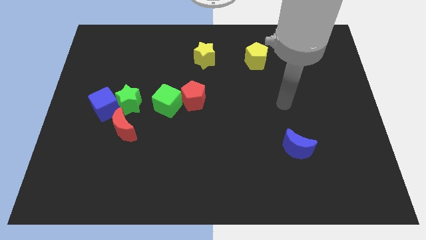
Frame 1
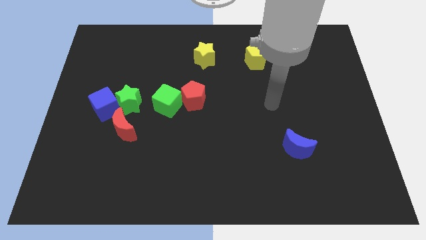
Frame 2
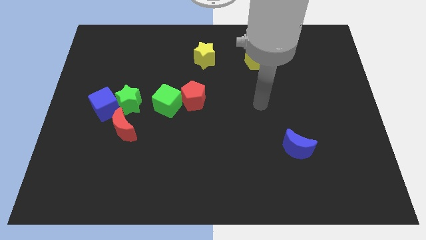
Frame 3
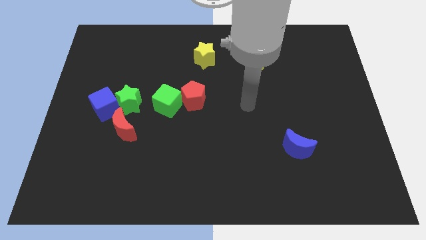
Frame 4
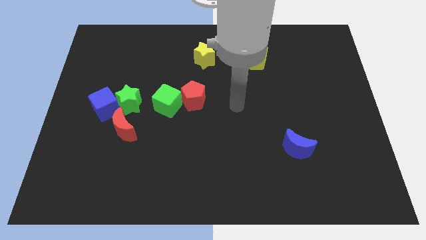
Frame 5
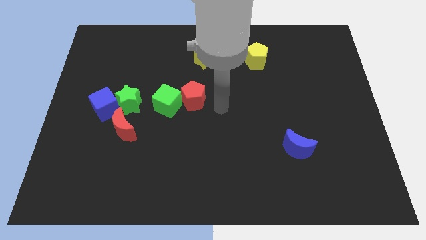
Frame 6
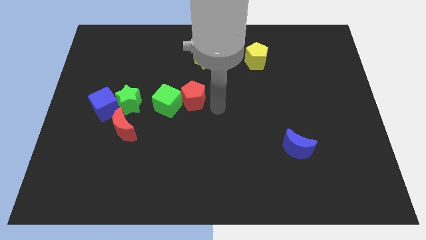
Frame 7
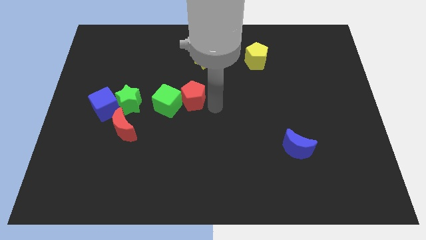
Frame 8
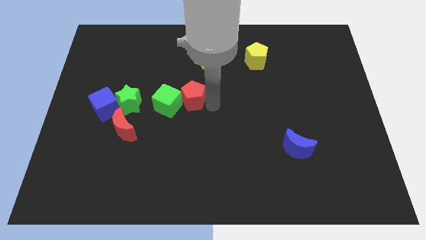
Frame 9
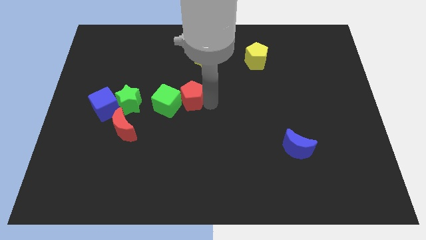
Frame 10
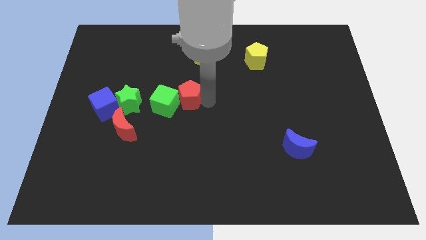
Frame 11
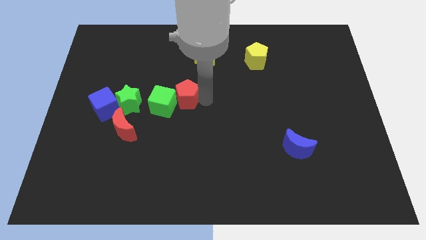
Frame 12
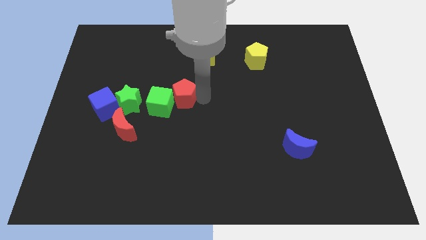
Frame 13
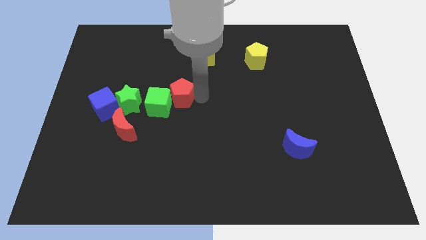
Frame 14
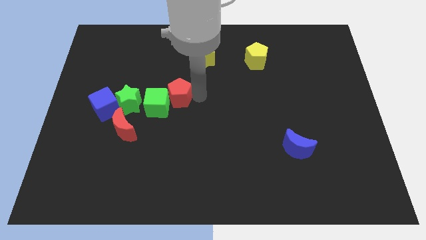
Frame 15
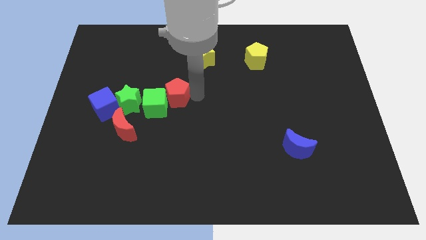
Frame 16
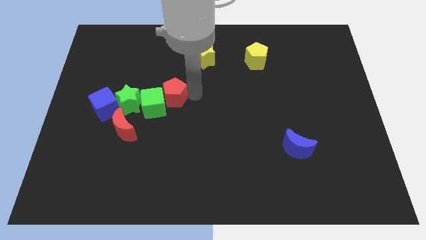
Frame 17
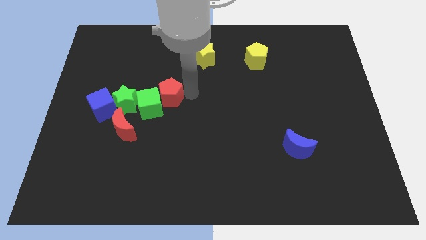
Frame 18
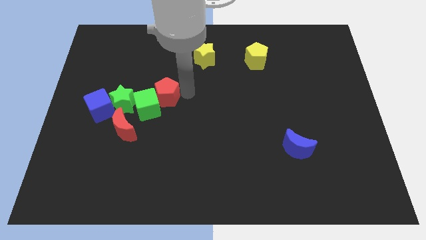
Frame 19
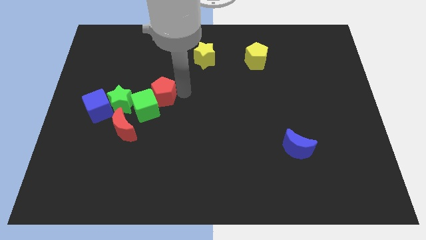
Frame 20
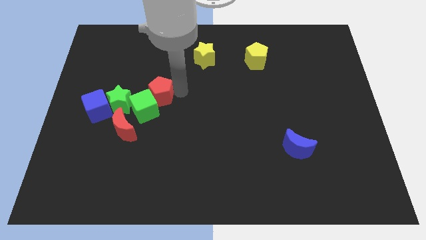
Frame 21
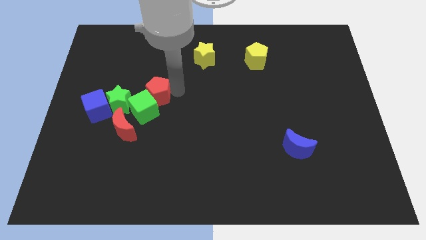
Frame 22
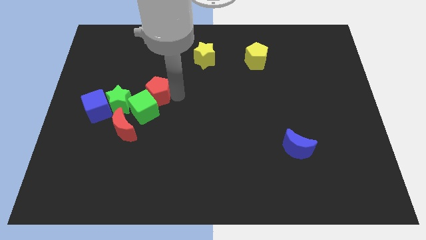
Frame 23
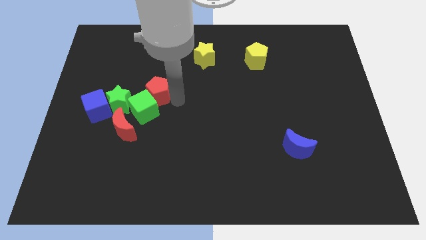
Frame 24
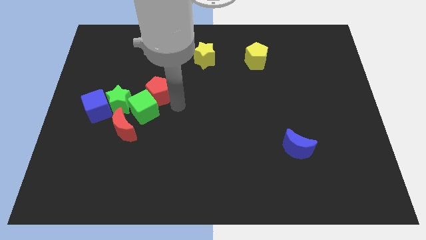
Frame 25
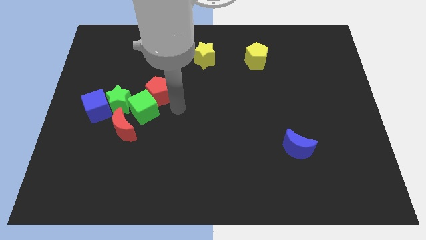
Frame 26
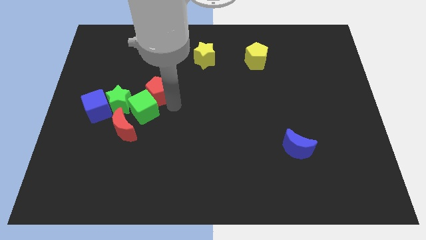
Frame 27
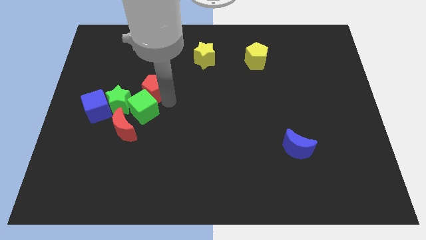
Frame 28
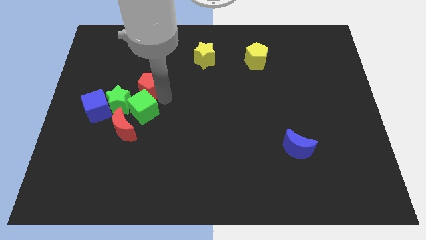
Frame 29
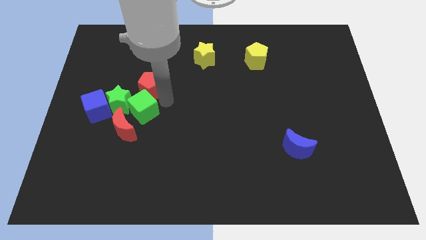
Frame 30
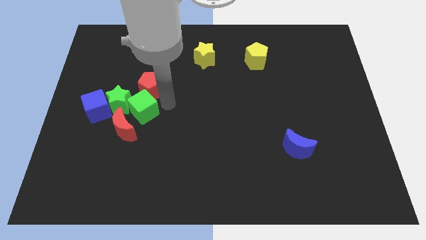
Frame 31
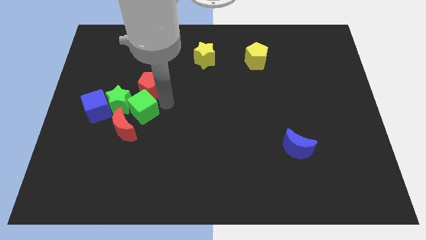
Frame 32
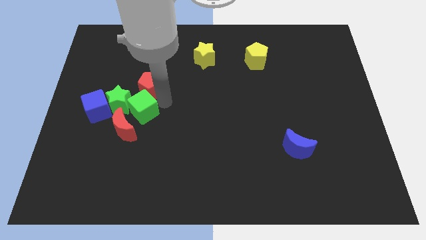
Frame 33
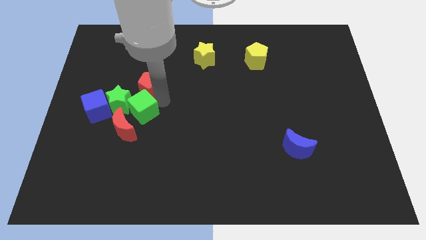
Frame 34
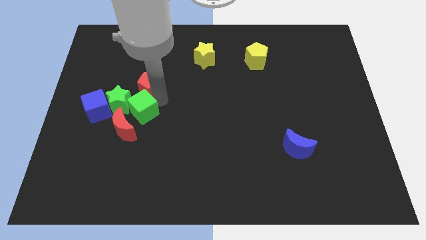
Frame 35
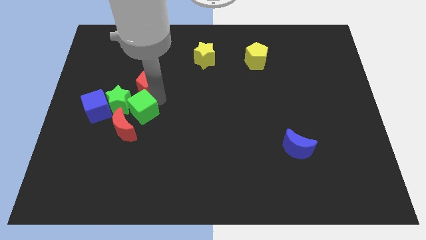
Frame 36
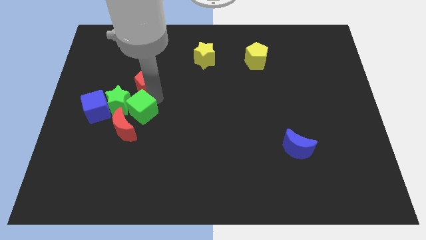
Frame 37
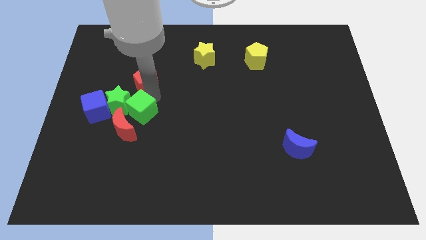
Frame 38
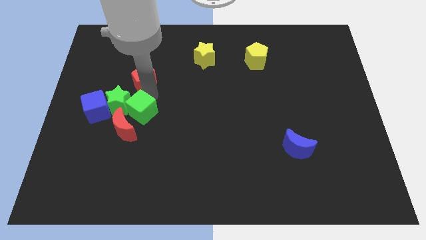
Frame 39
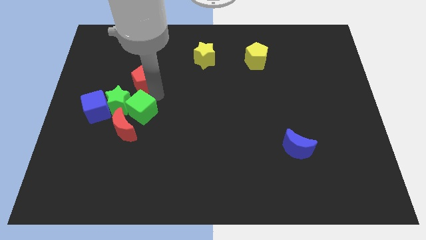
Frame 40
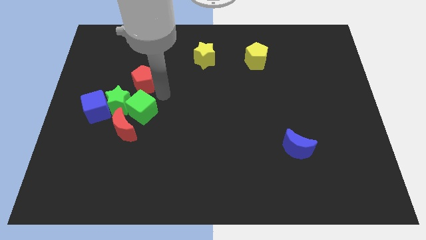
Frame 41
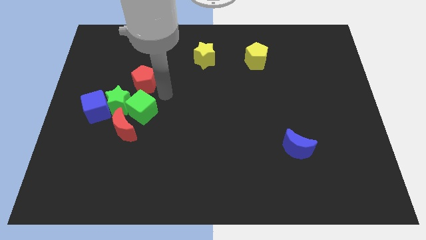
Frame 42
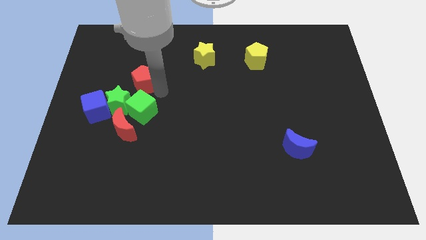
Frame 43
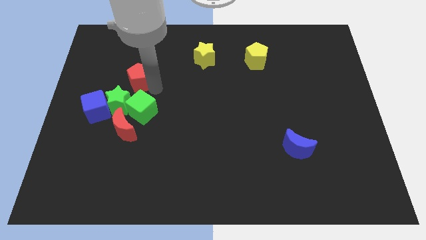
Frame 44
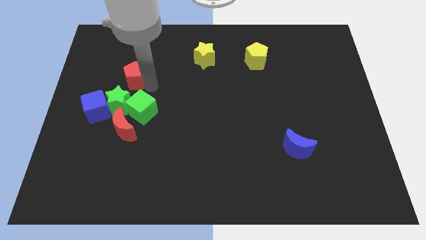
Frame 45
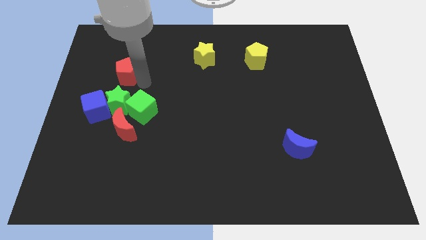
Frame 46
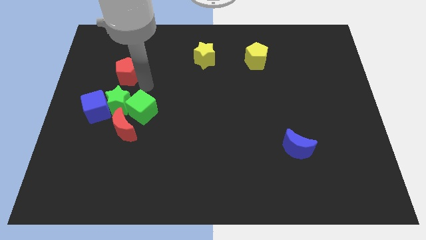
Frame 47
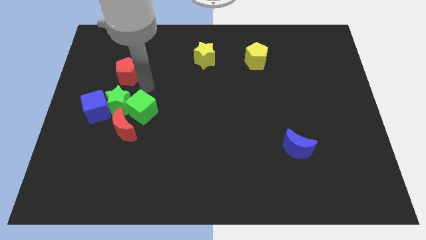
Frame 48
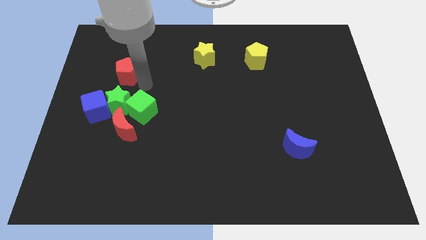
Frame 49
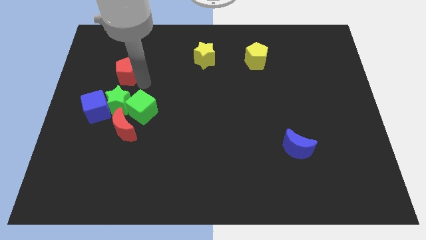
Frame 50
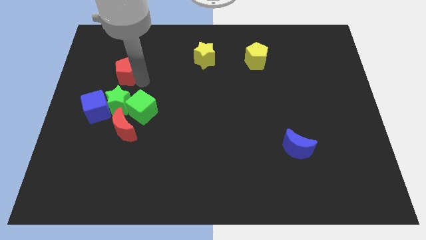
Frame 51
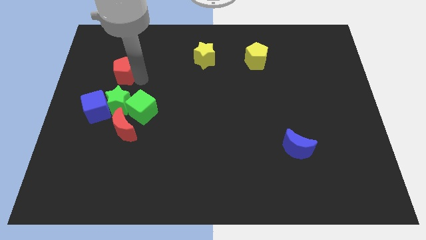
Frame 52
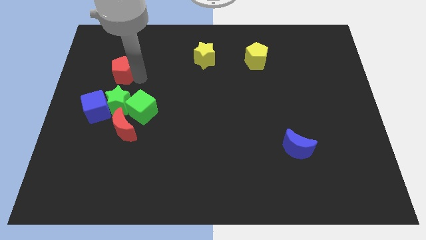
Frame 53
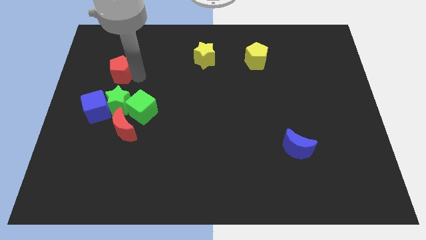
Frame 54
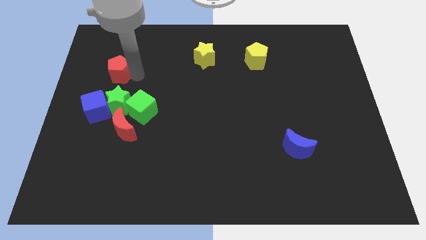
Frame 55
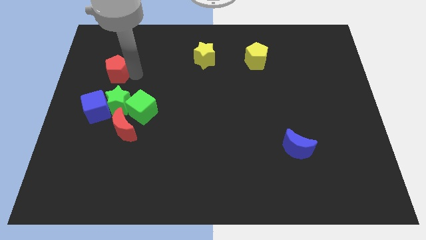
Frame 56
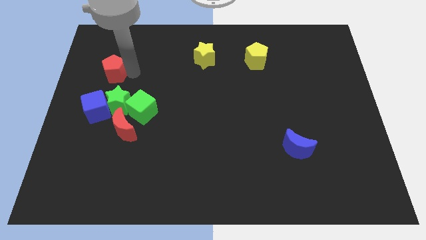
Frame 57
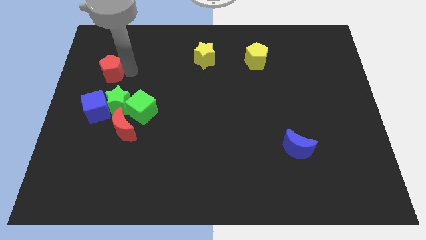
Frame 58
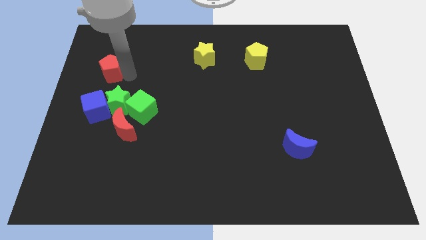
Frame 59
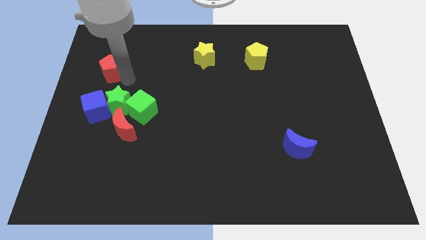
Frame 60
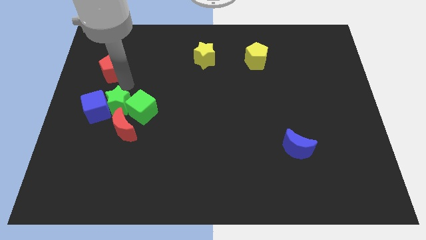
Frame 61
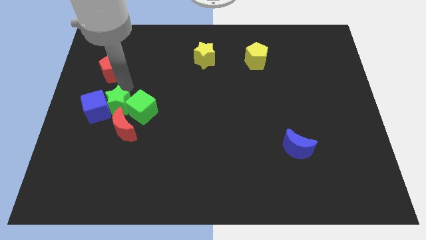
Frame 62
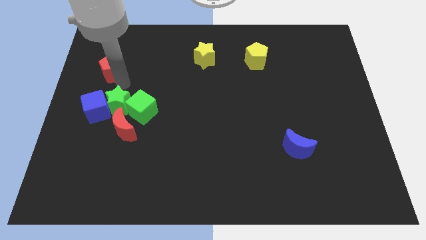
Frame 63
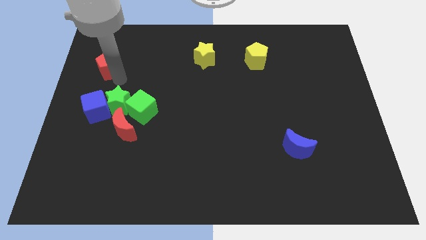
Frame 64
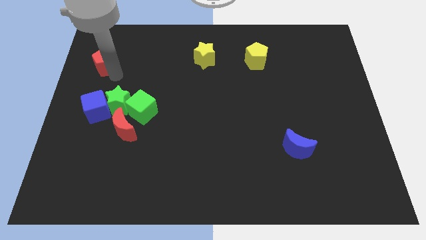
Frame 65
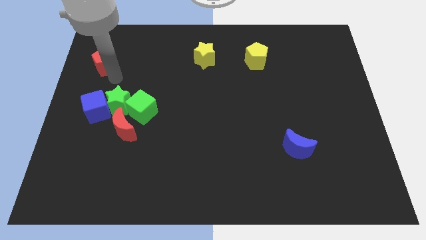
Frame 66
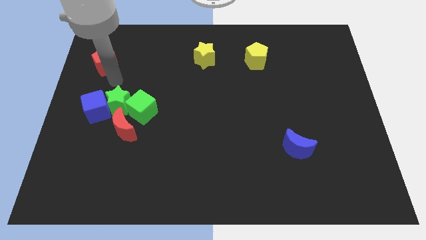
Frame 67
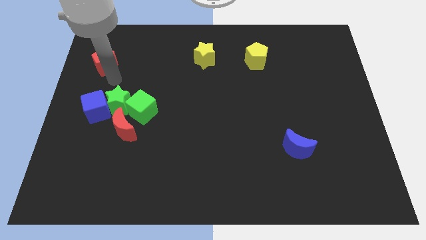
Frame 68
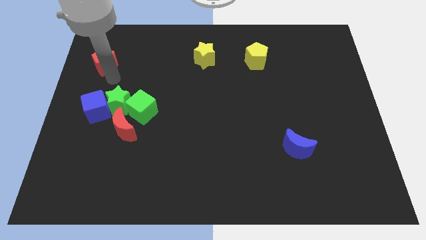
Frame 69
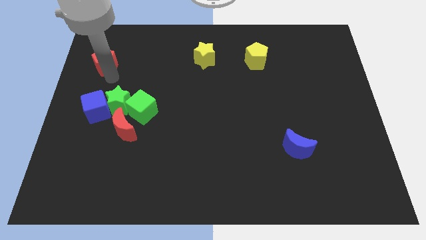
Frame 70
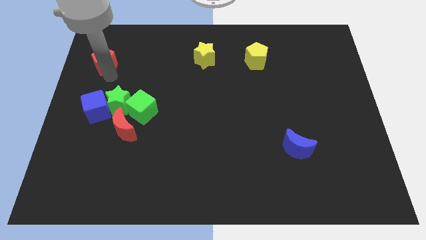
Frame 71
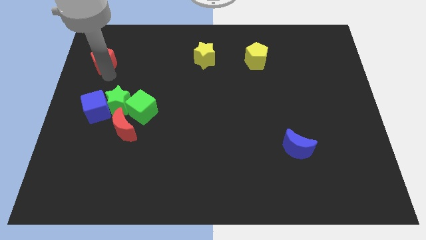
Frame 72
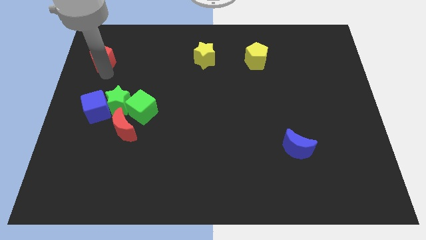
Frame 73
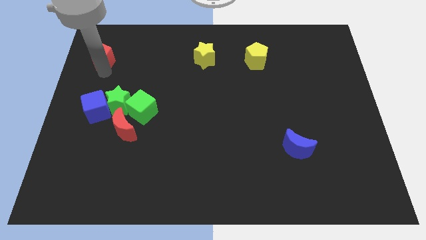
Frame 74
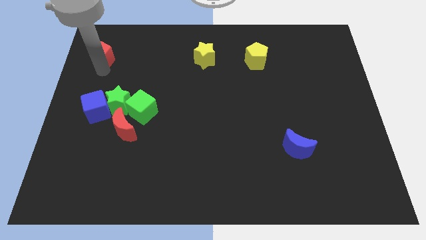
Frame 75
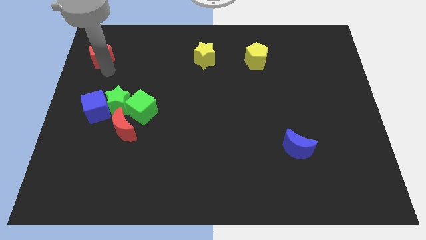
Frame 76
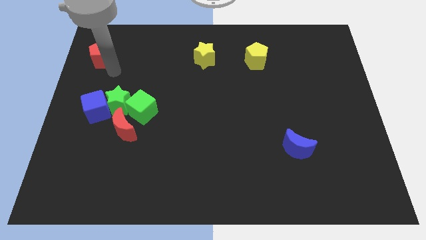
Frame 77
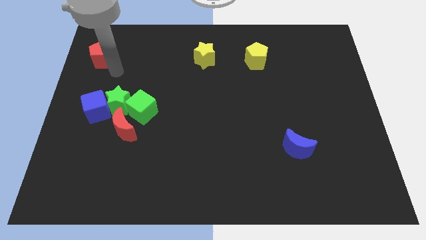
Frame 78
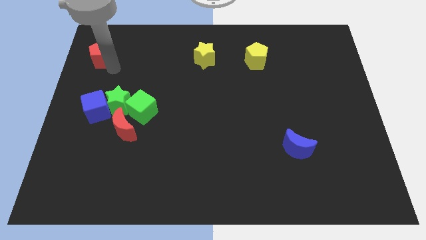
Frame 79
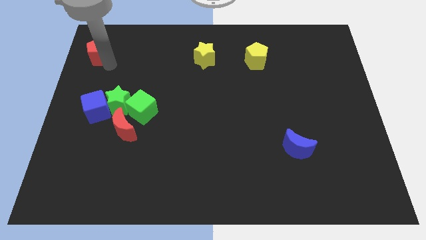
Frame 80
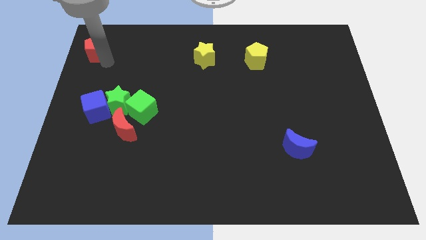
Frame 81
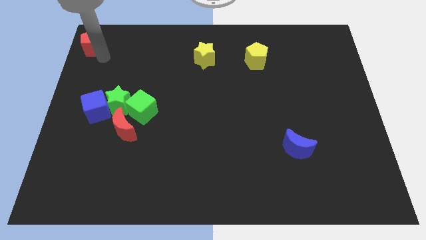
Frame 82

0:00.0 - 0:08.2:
slide the red pentagon to the top left corner
